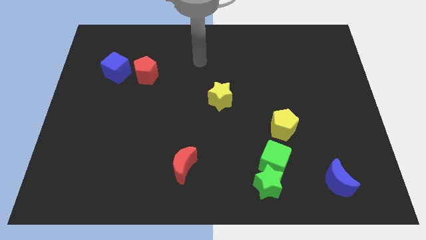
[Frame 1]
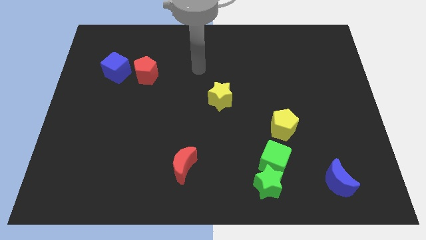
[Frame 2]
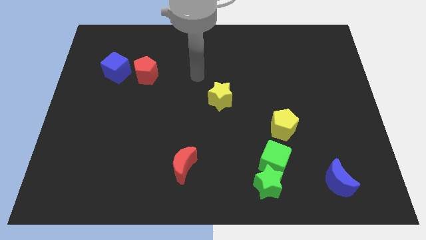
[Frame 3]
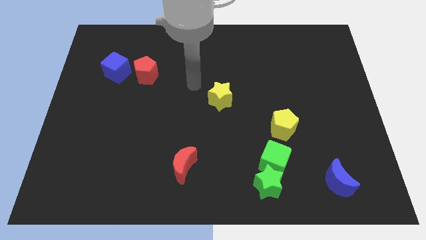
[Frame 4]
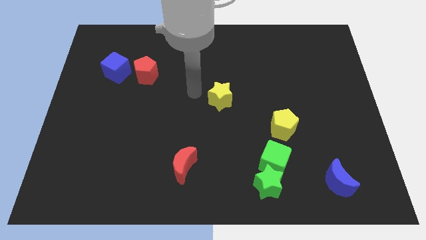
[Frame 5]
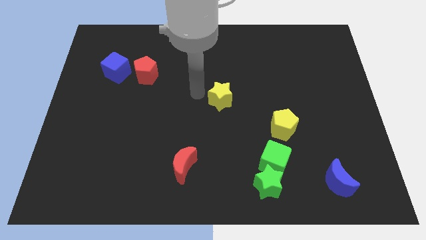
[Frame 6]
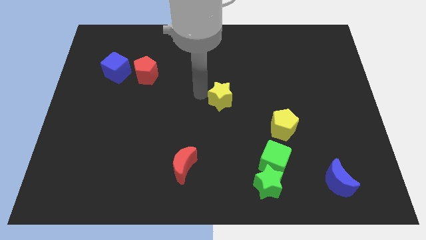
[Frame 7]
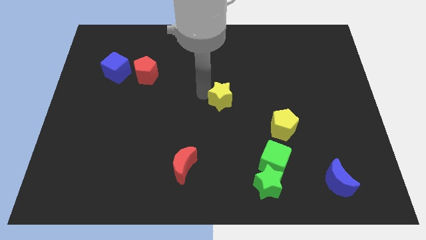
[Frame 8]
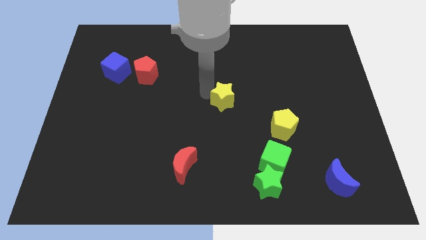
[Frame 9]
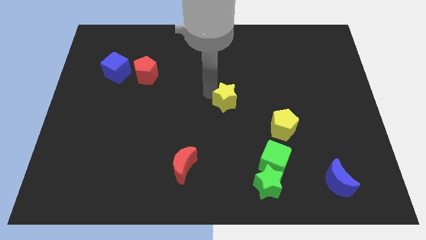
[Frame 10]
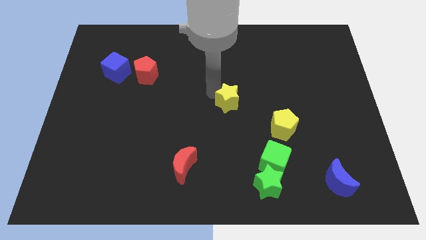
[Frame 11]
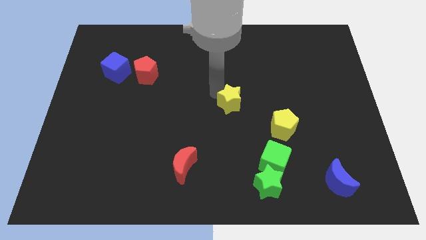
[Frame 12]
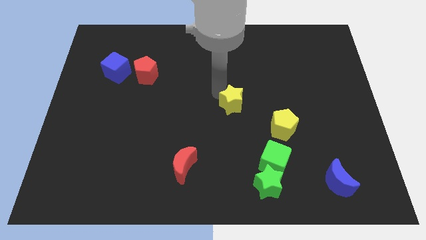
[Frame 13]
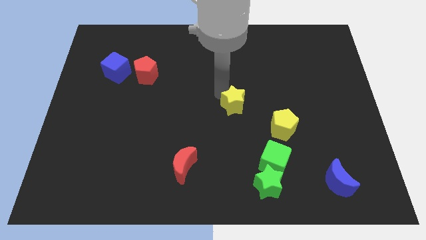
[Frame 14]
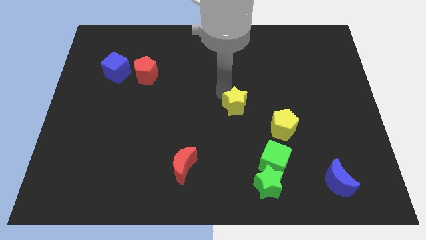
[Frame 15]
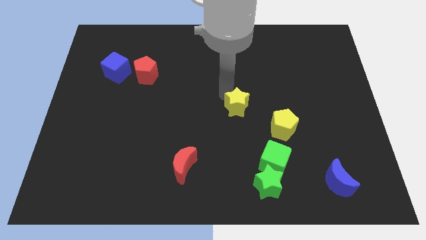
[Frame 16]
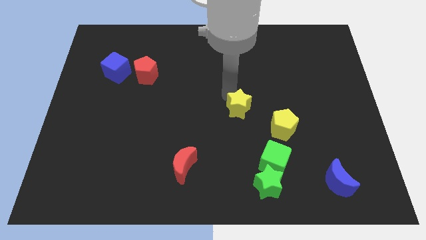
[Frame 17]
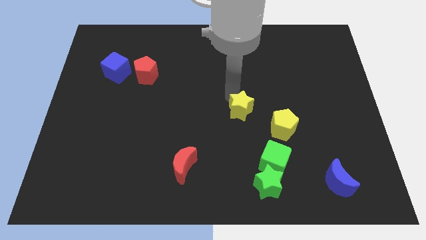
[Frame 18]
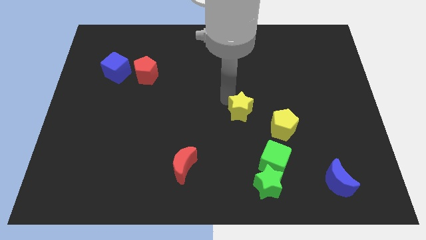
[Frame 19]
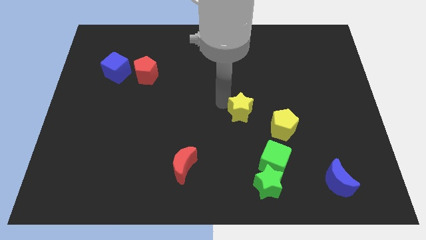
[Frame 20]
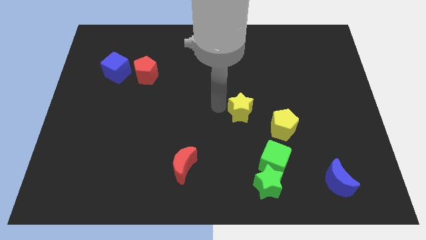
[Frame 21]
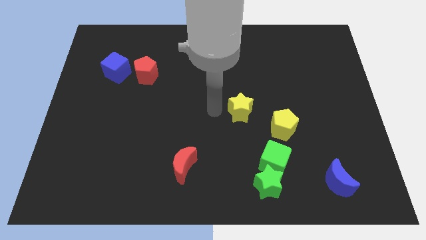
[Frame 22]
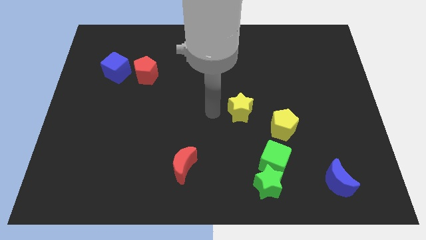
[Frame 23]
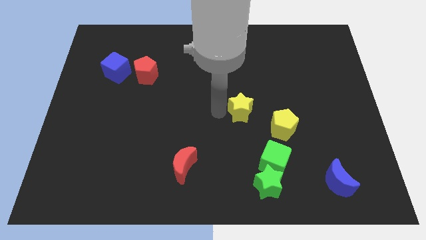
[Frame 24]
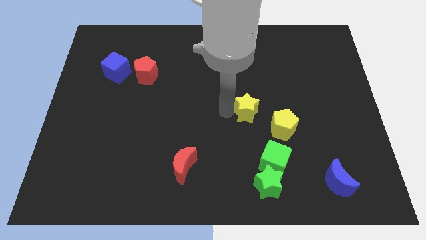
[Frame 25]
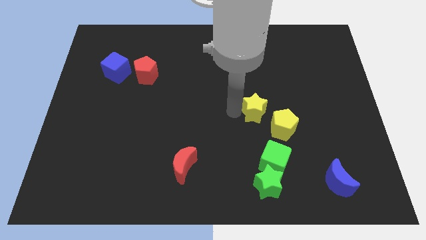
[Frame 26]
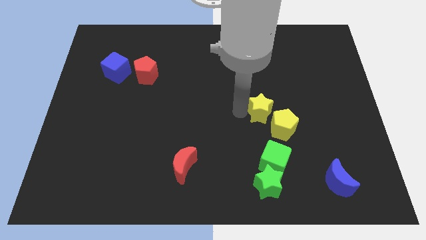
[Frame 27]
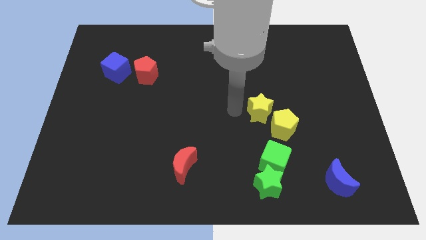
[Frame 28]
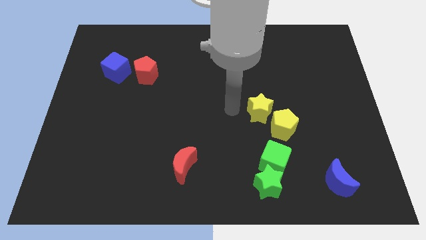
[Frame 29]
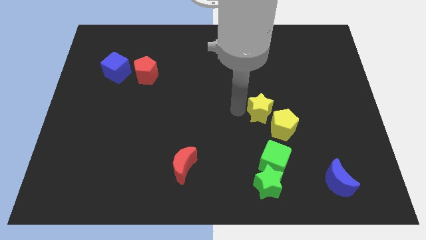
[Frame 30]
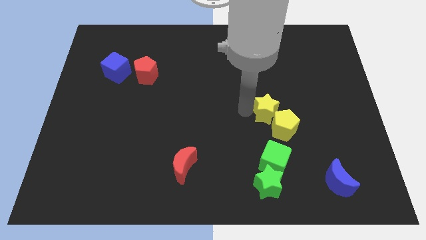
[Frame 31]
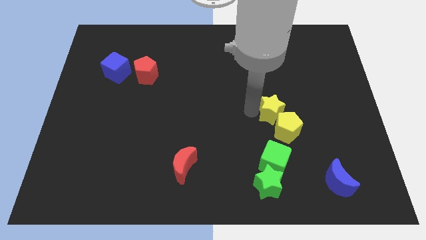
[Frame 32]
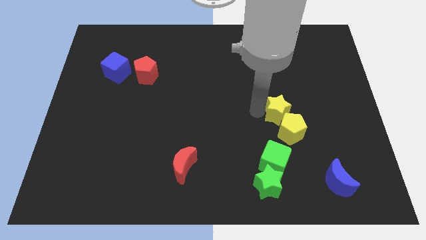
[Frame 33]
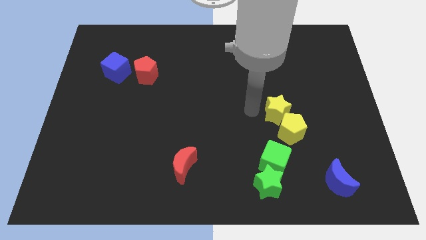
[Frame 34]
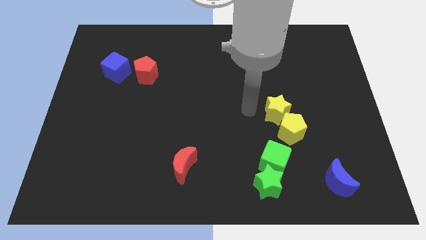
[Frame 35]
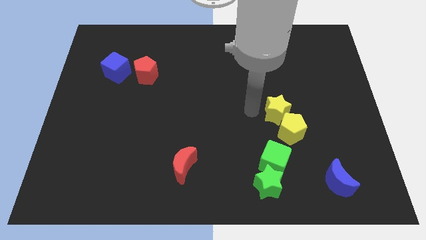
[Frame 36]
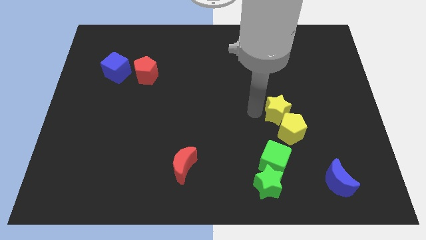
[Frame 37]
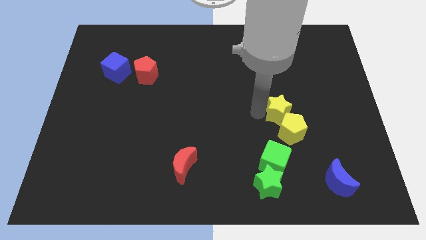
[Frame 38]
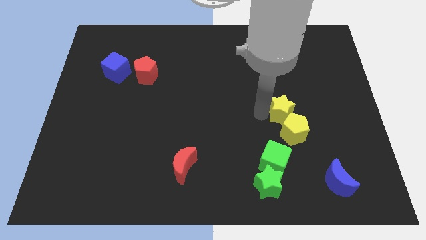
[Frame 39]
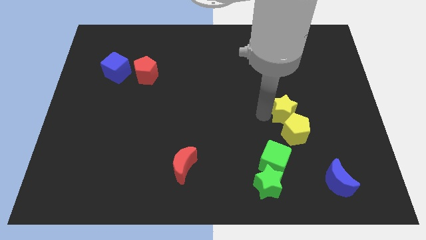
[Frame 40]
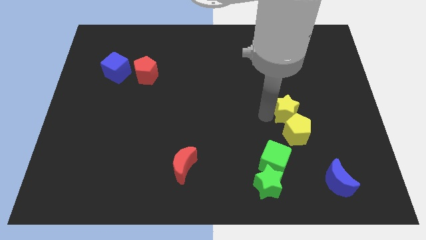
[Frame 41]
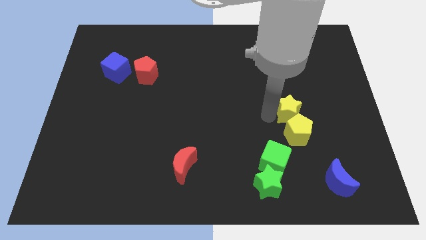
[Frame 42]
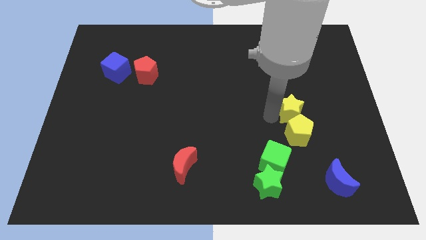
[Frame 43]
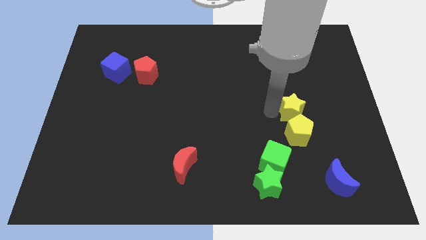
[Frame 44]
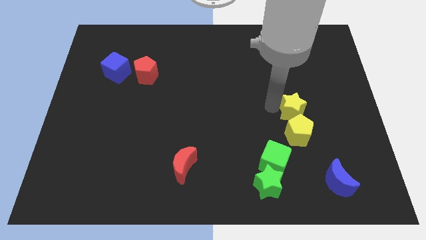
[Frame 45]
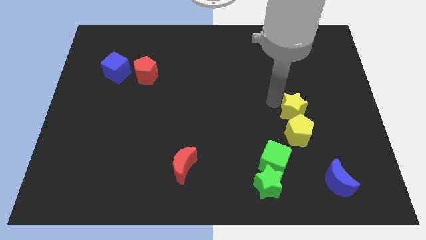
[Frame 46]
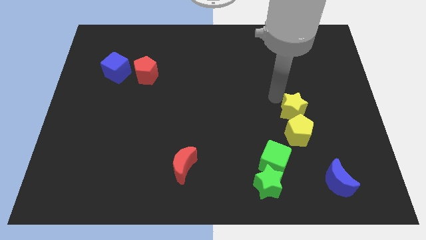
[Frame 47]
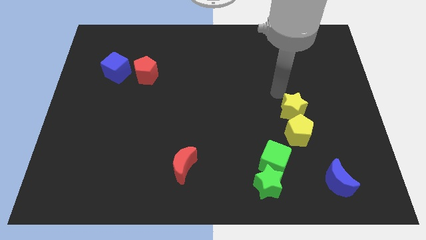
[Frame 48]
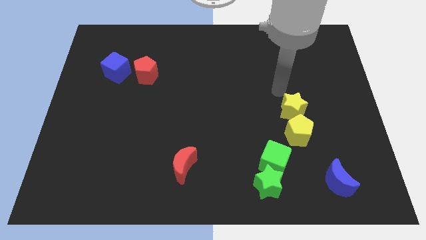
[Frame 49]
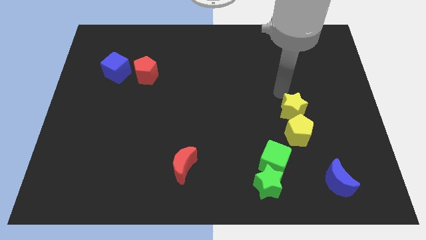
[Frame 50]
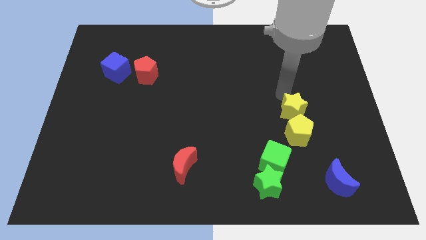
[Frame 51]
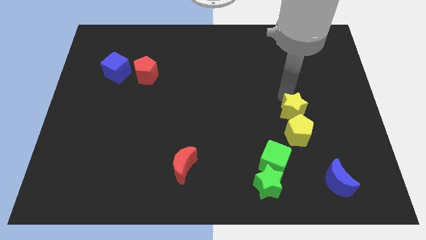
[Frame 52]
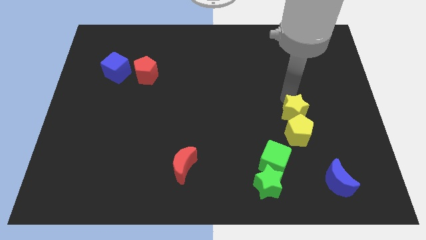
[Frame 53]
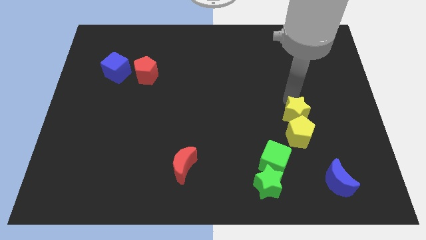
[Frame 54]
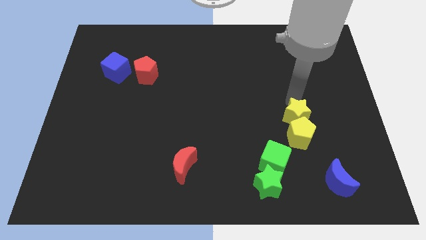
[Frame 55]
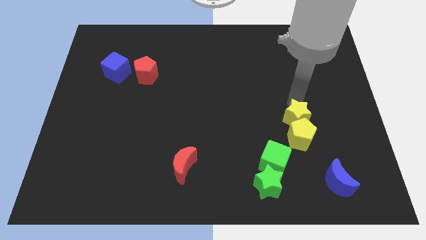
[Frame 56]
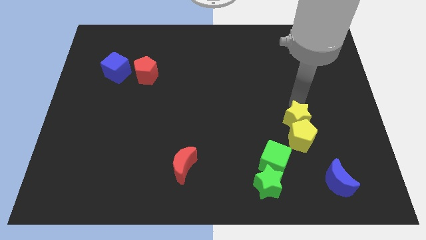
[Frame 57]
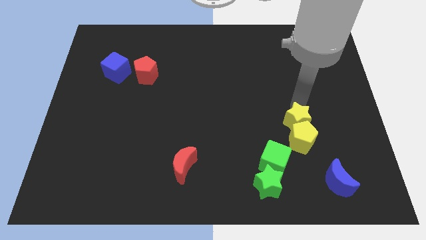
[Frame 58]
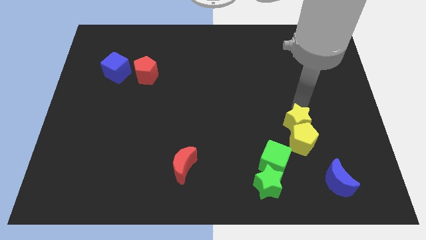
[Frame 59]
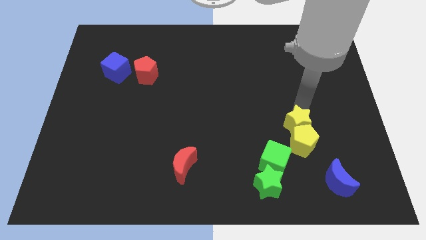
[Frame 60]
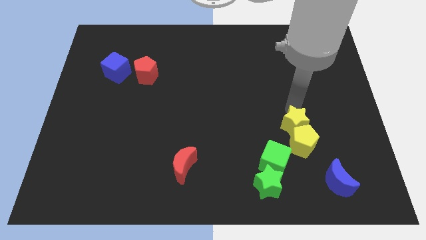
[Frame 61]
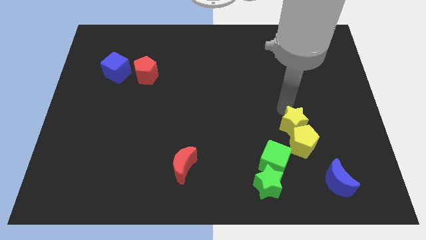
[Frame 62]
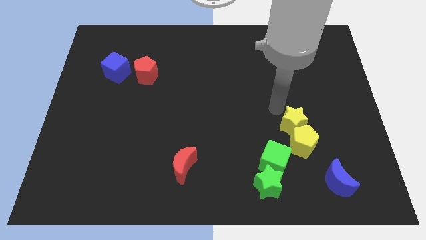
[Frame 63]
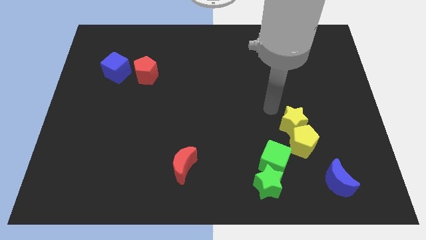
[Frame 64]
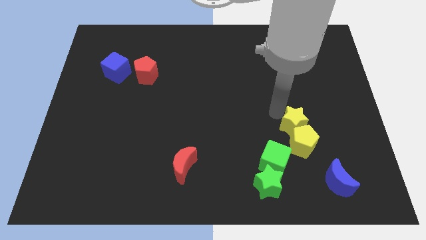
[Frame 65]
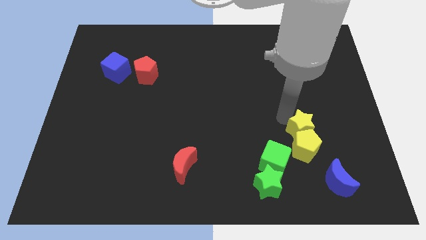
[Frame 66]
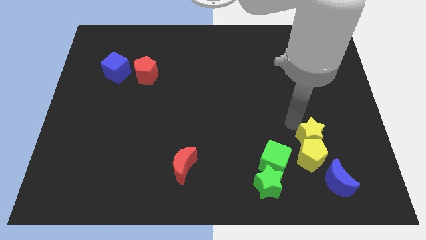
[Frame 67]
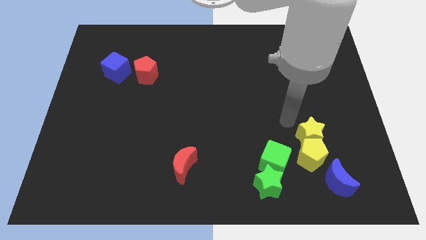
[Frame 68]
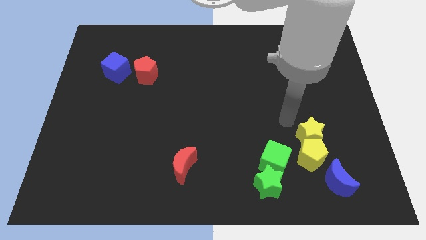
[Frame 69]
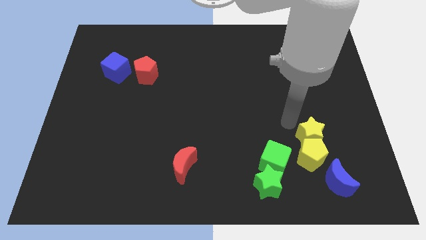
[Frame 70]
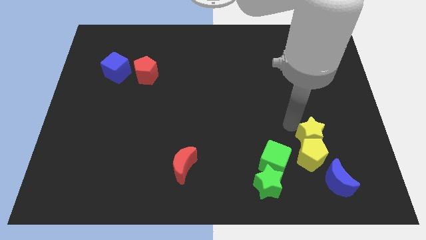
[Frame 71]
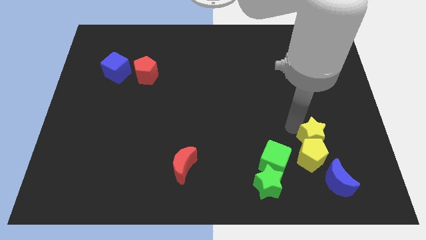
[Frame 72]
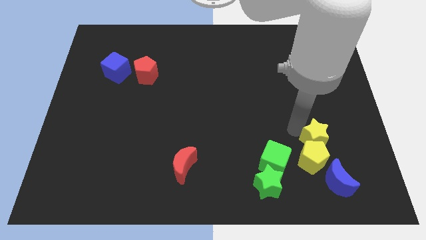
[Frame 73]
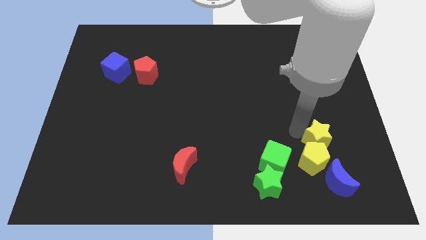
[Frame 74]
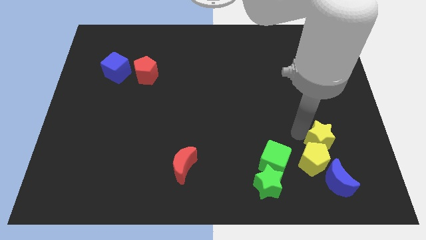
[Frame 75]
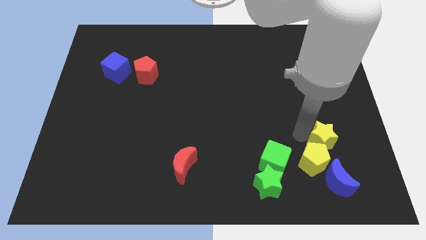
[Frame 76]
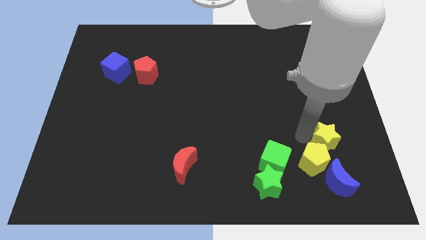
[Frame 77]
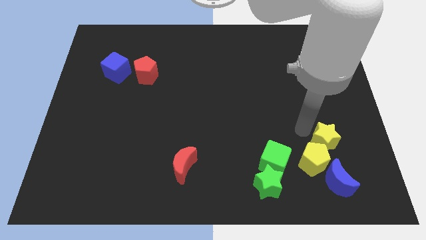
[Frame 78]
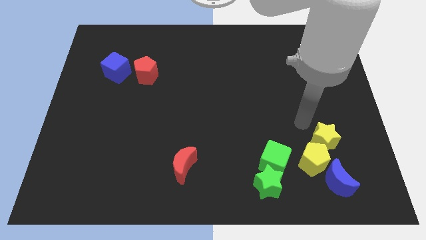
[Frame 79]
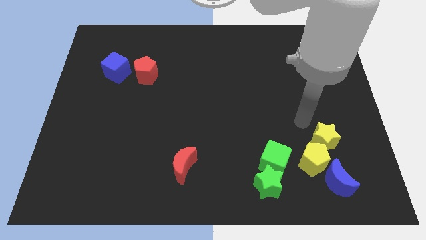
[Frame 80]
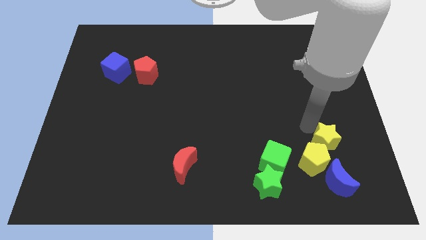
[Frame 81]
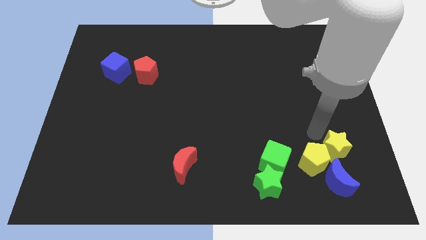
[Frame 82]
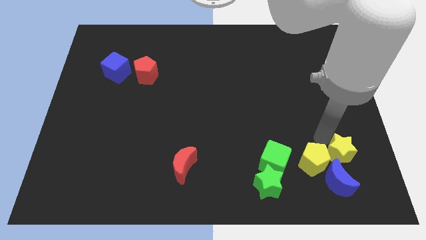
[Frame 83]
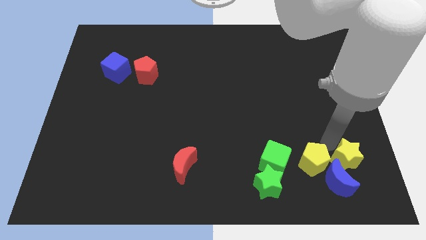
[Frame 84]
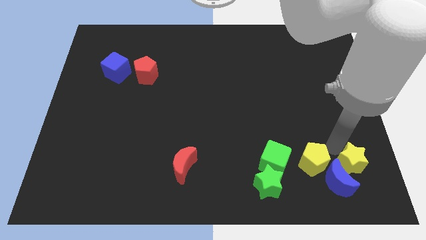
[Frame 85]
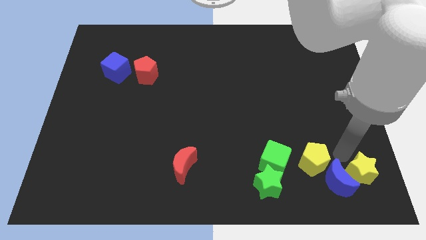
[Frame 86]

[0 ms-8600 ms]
push the yellow star to the bottom right
